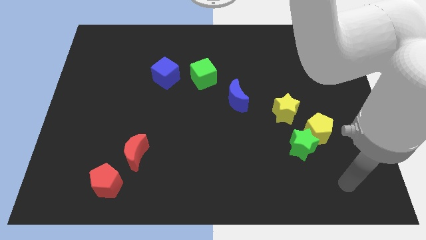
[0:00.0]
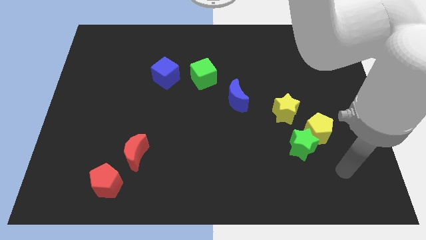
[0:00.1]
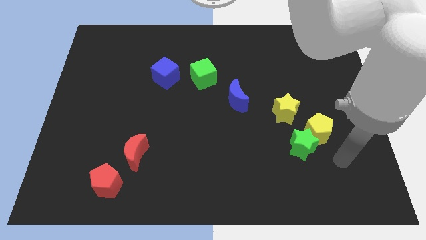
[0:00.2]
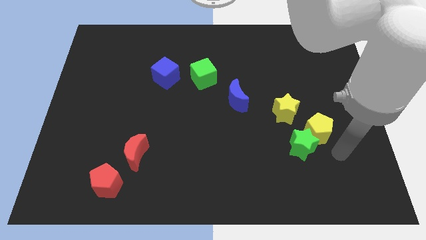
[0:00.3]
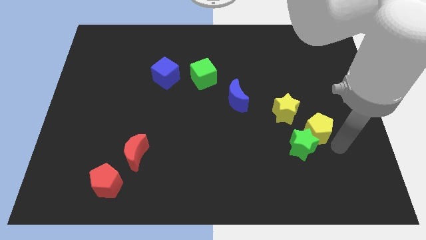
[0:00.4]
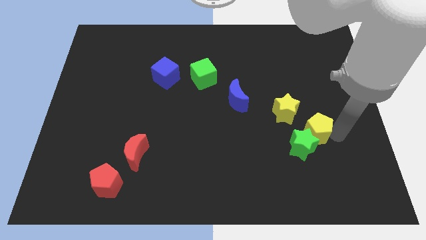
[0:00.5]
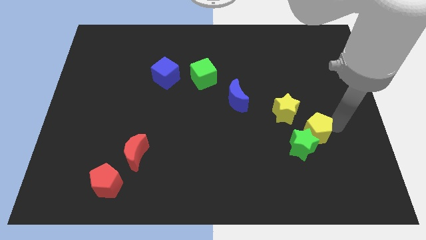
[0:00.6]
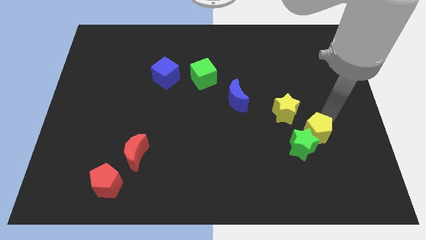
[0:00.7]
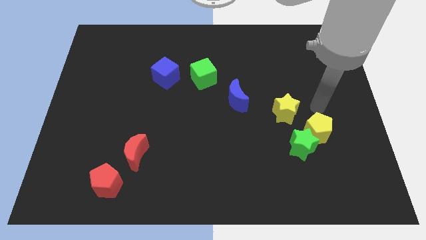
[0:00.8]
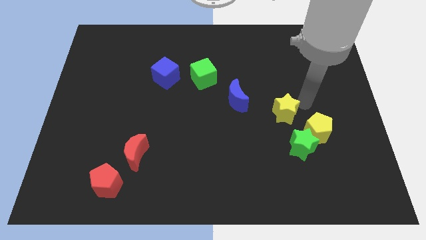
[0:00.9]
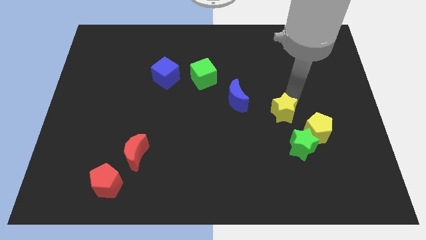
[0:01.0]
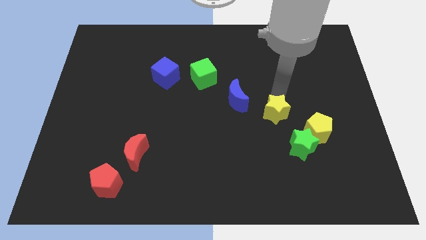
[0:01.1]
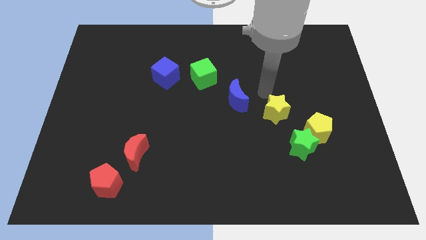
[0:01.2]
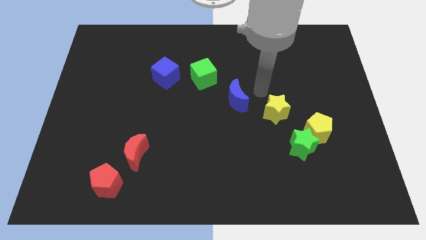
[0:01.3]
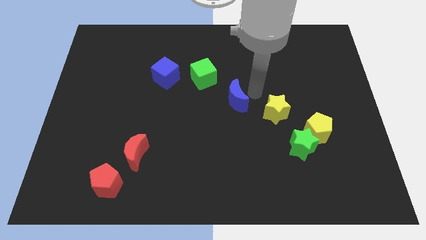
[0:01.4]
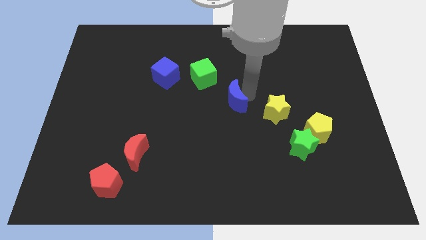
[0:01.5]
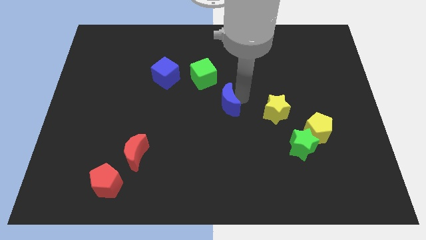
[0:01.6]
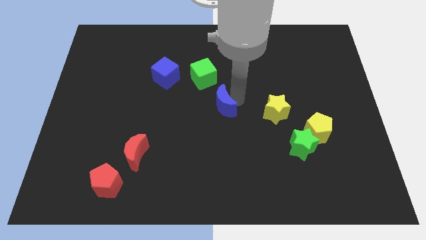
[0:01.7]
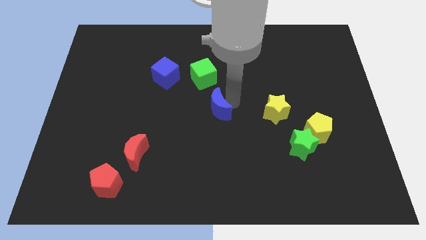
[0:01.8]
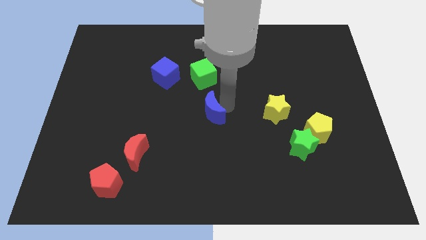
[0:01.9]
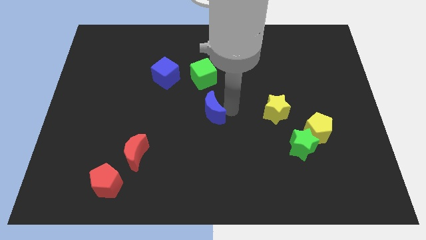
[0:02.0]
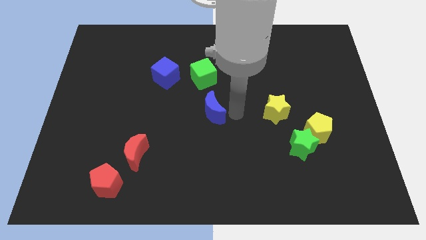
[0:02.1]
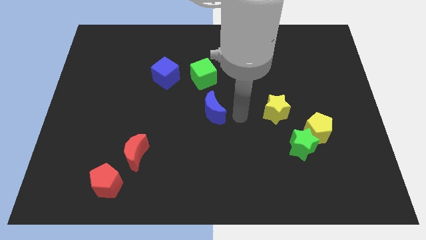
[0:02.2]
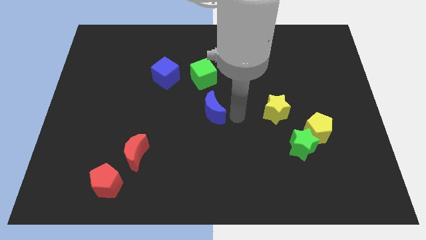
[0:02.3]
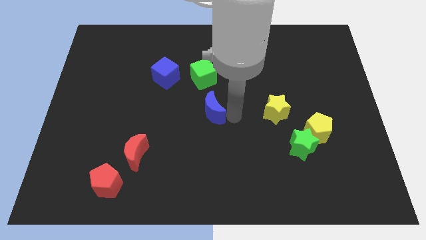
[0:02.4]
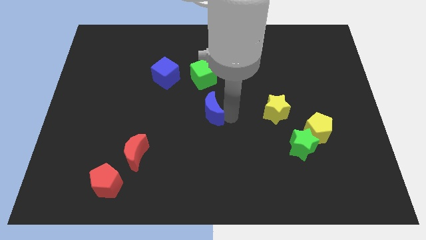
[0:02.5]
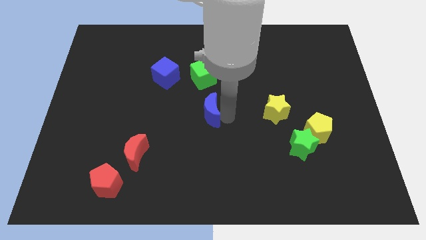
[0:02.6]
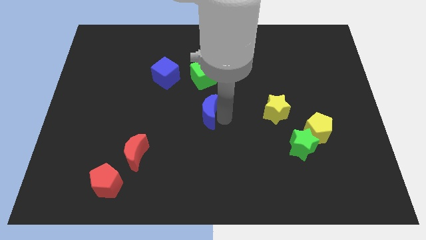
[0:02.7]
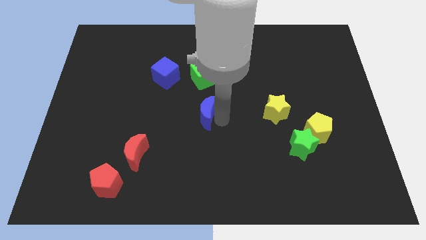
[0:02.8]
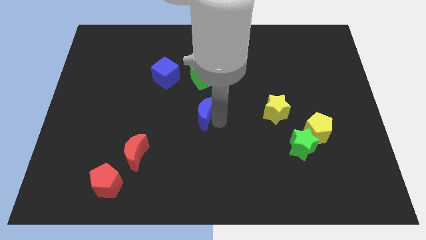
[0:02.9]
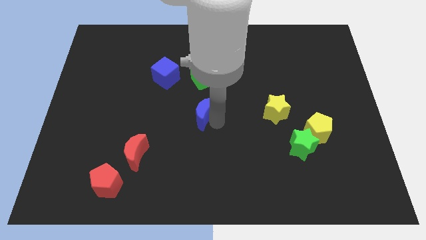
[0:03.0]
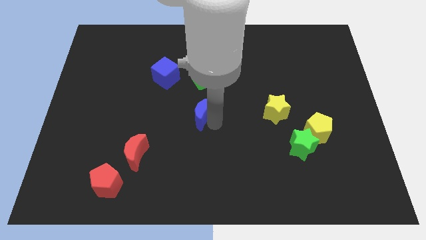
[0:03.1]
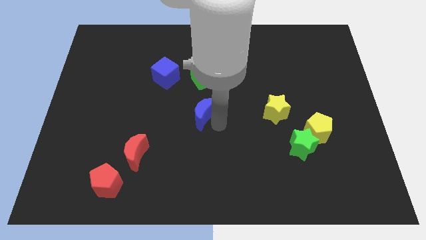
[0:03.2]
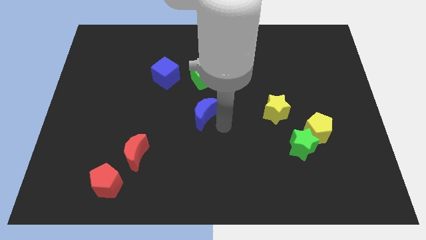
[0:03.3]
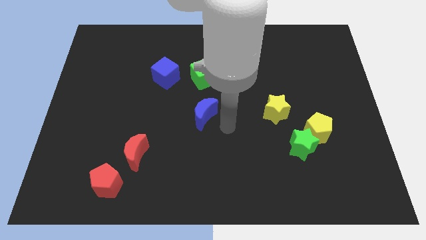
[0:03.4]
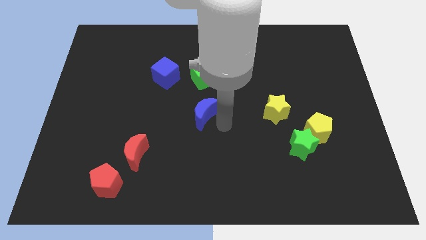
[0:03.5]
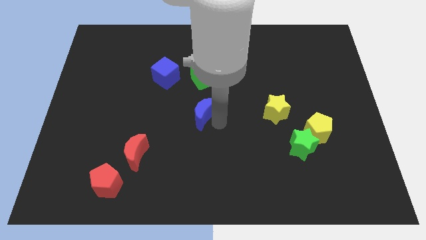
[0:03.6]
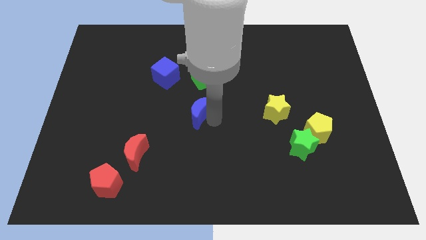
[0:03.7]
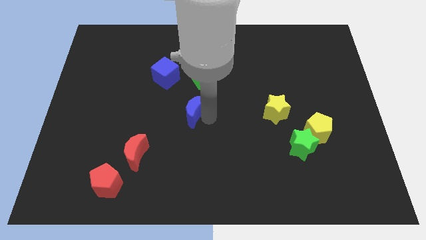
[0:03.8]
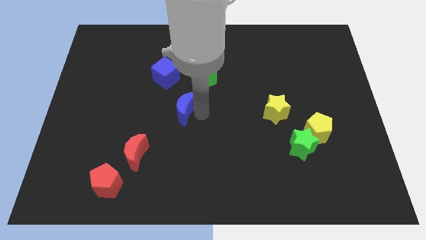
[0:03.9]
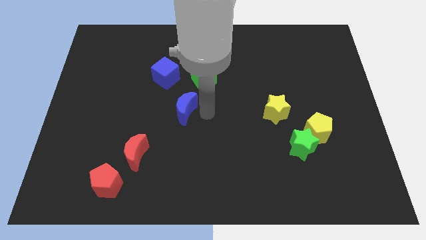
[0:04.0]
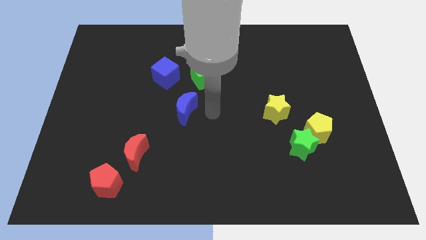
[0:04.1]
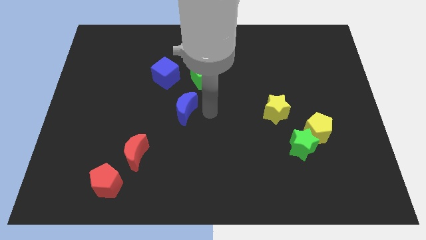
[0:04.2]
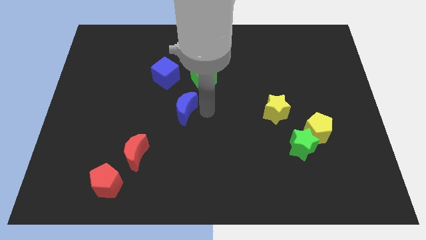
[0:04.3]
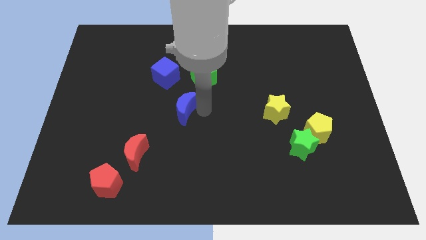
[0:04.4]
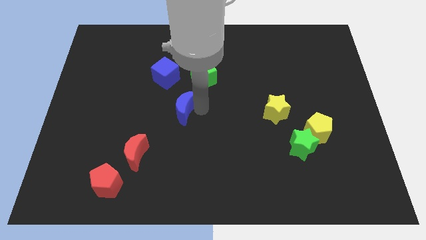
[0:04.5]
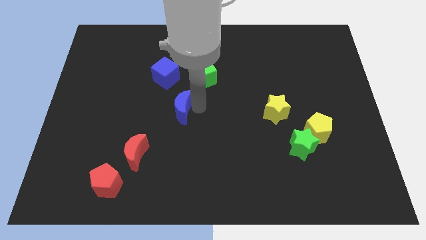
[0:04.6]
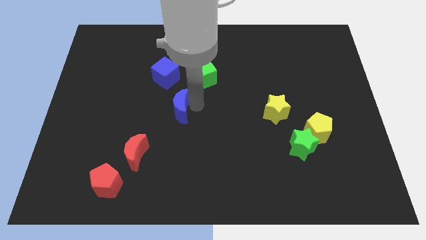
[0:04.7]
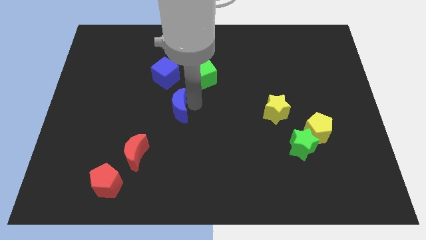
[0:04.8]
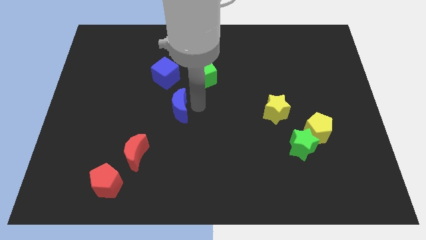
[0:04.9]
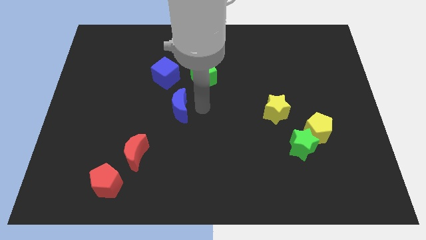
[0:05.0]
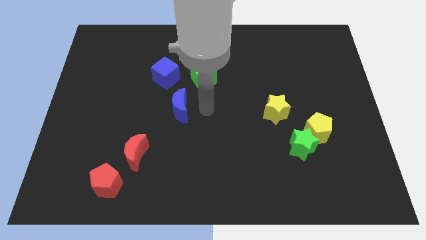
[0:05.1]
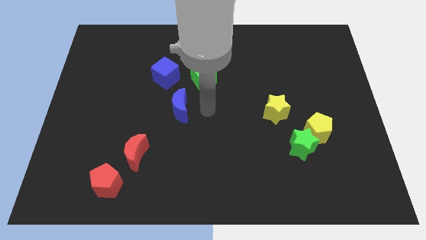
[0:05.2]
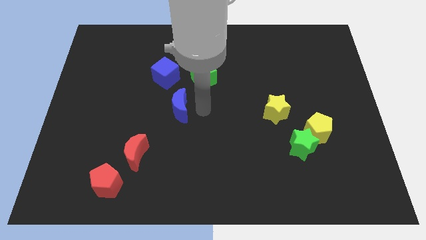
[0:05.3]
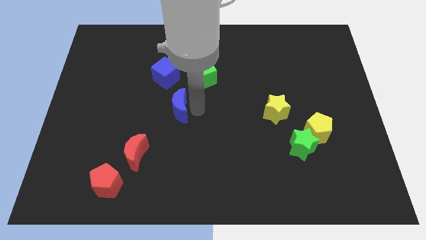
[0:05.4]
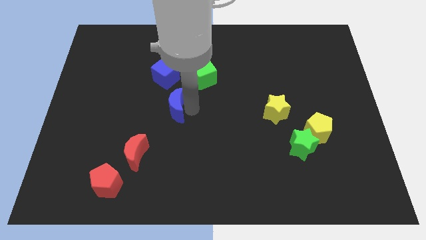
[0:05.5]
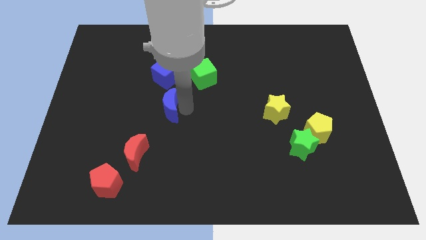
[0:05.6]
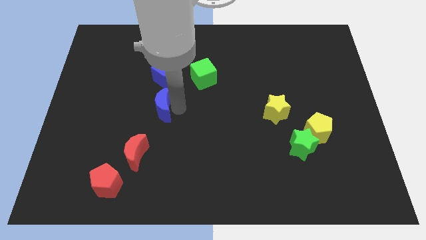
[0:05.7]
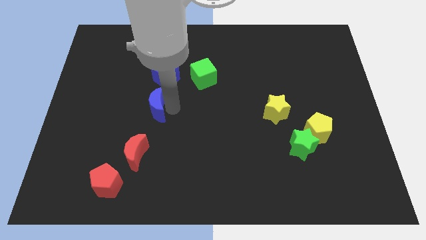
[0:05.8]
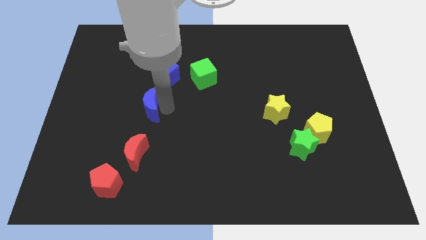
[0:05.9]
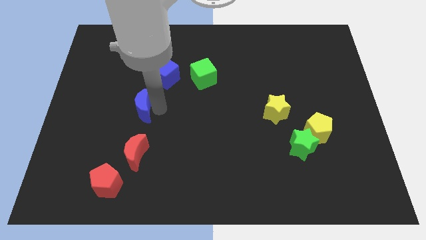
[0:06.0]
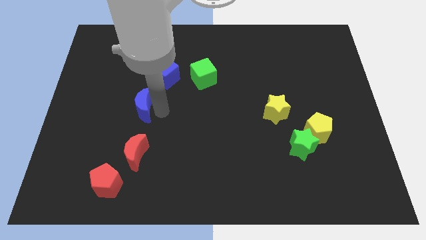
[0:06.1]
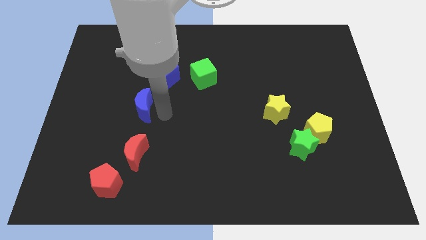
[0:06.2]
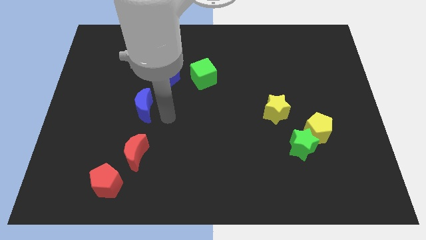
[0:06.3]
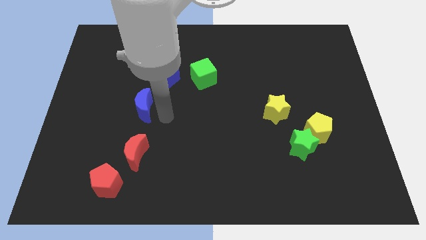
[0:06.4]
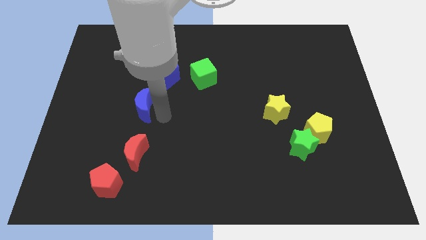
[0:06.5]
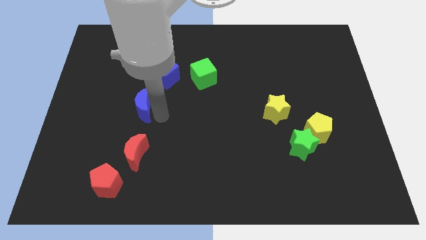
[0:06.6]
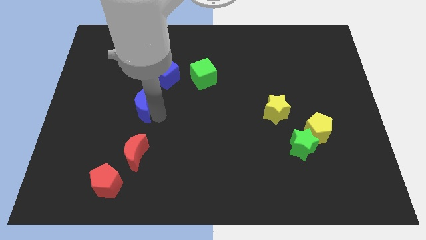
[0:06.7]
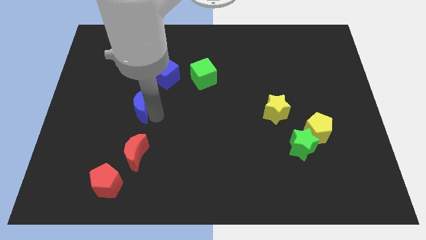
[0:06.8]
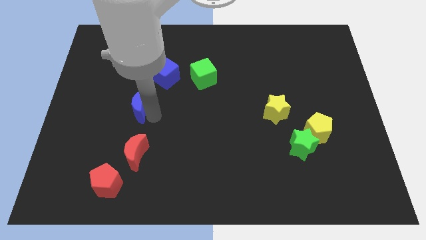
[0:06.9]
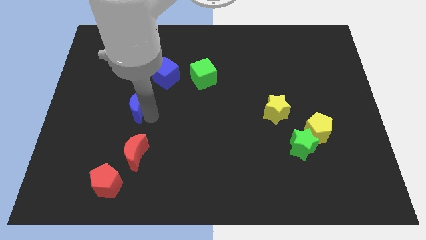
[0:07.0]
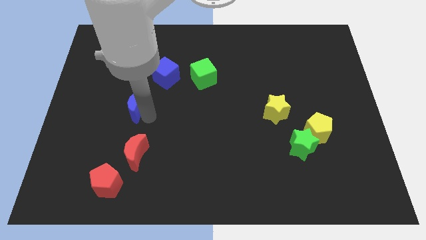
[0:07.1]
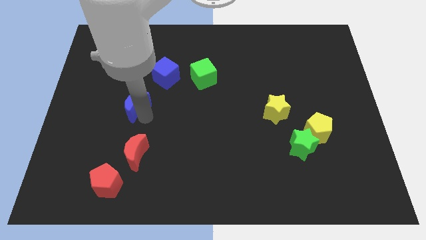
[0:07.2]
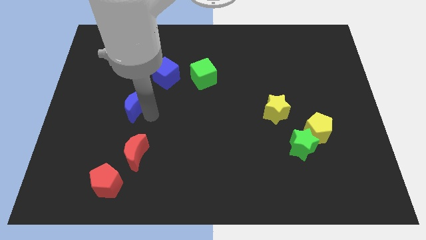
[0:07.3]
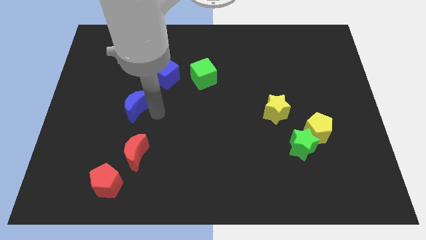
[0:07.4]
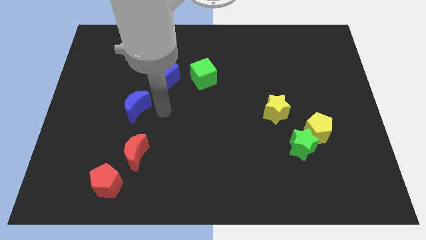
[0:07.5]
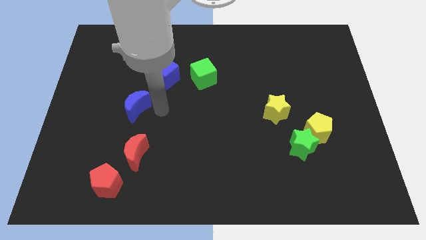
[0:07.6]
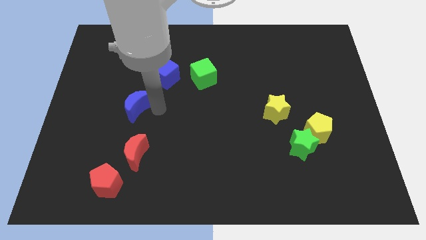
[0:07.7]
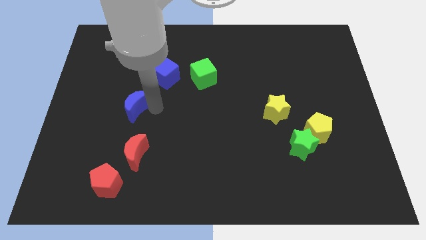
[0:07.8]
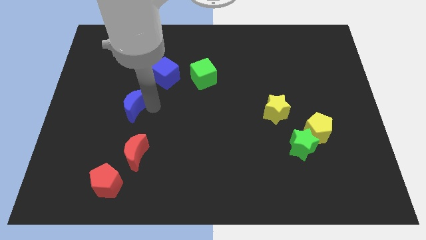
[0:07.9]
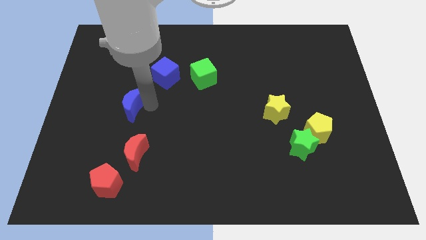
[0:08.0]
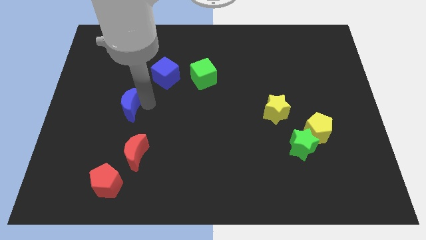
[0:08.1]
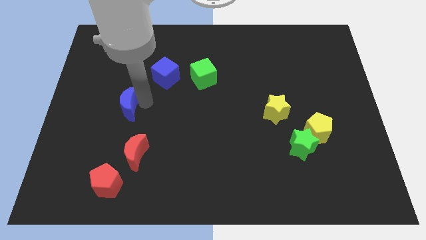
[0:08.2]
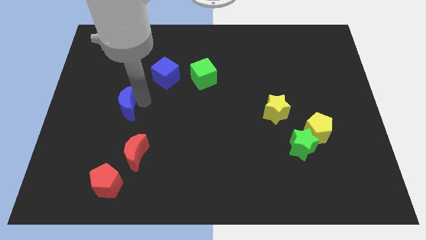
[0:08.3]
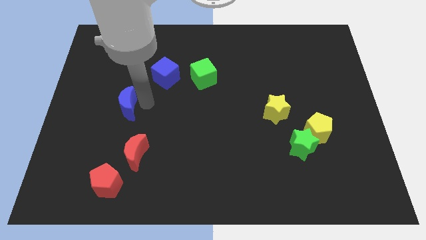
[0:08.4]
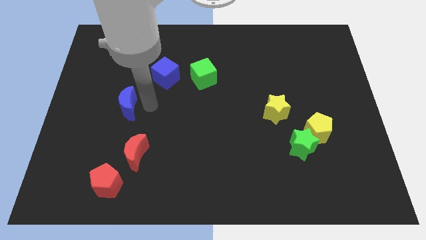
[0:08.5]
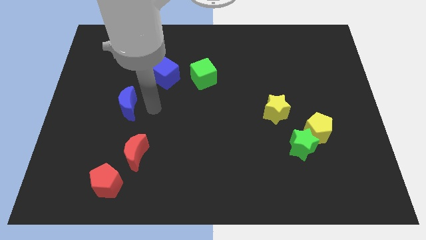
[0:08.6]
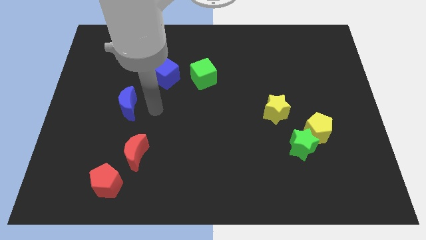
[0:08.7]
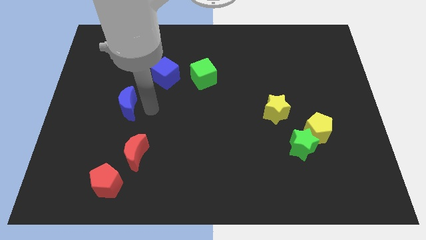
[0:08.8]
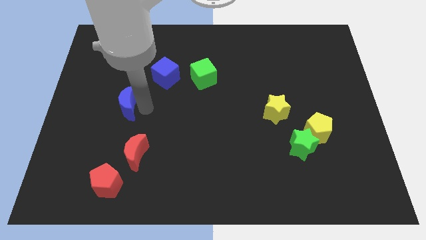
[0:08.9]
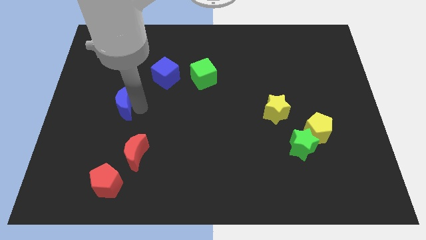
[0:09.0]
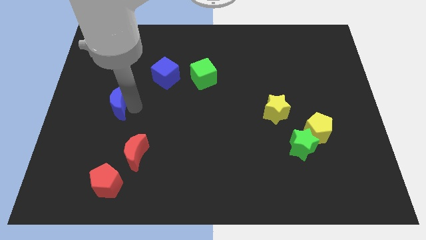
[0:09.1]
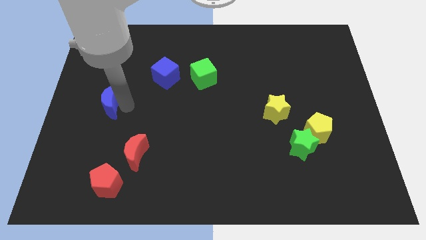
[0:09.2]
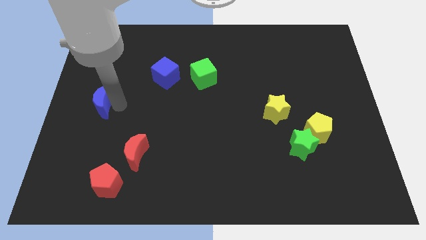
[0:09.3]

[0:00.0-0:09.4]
push the blue moon to the left side
